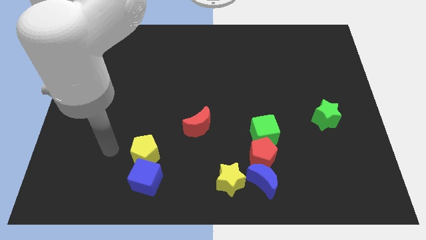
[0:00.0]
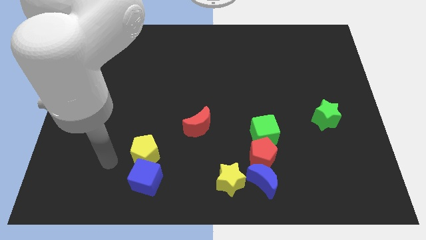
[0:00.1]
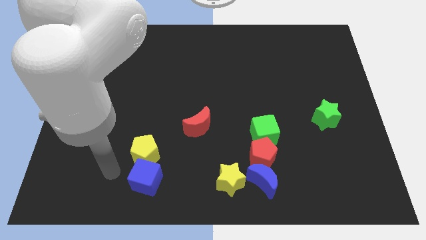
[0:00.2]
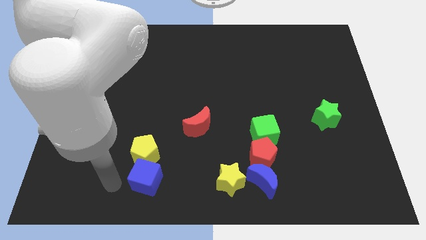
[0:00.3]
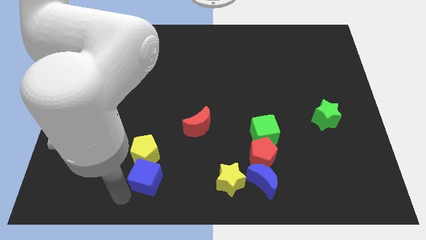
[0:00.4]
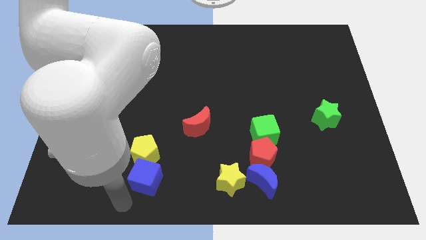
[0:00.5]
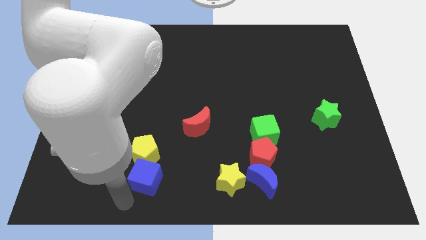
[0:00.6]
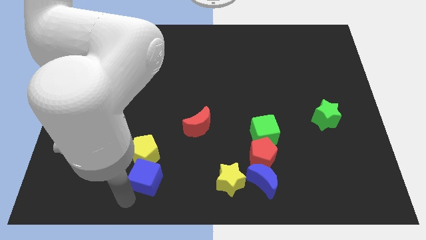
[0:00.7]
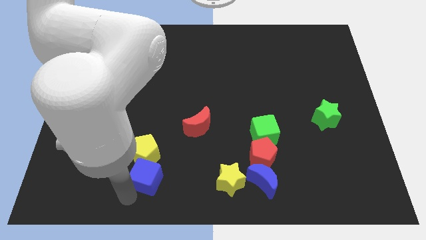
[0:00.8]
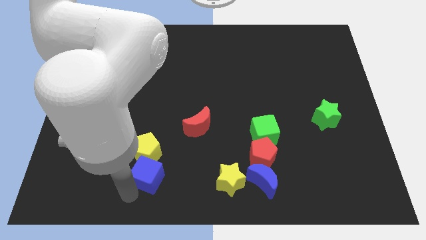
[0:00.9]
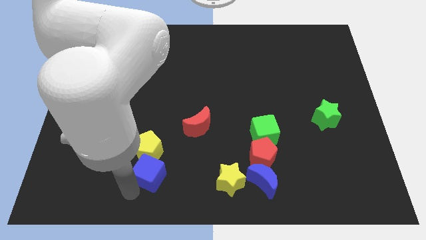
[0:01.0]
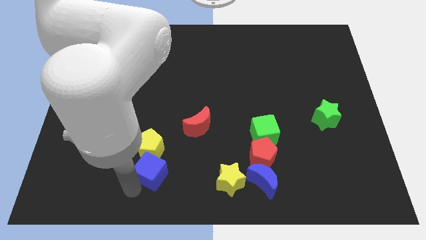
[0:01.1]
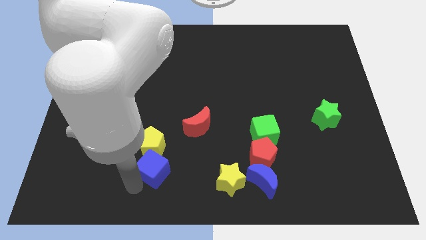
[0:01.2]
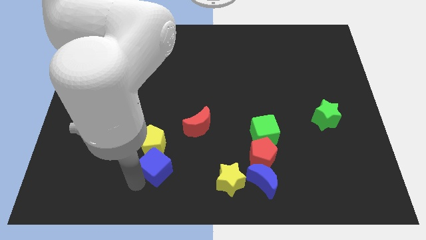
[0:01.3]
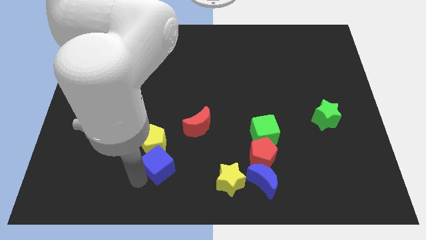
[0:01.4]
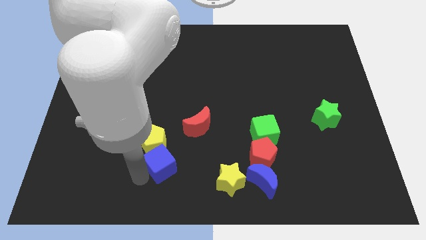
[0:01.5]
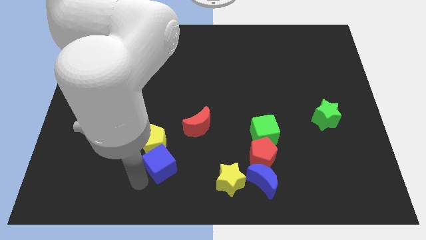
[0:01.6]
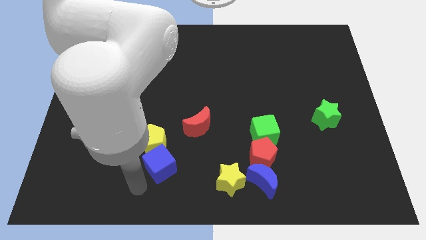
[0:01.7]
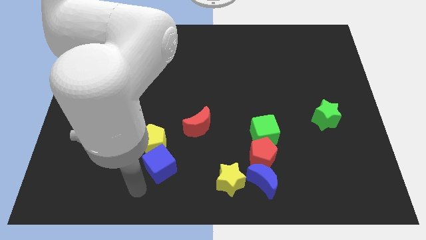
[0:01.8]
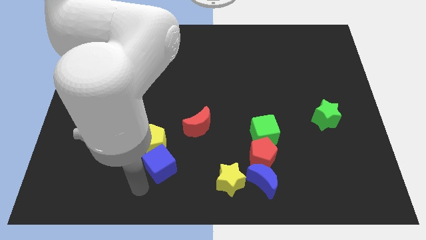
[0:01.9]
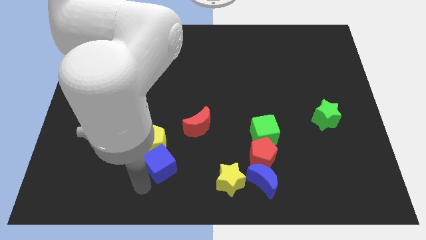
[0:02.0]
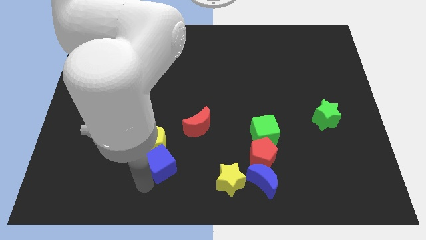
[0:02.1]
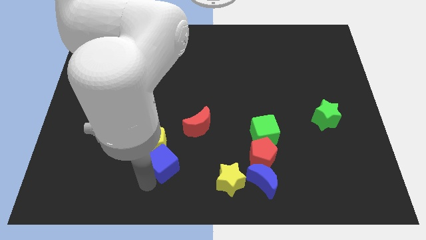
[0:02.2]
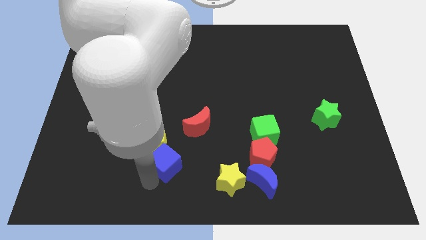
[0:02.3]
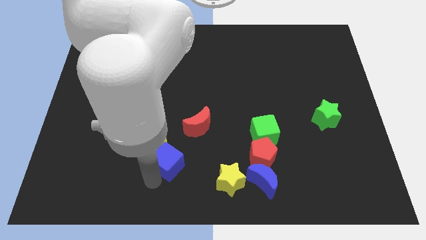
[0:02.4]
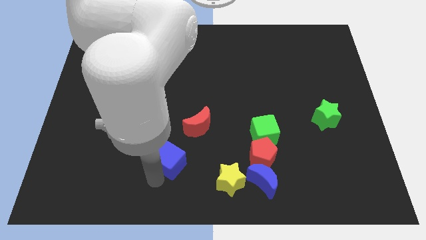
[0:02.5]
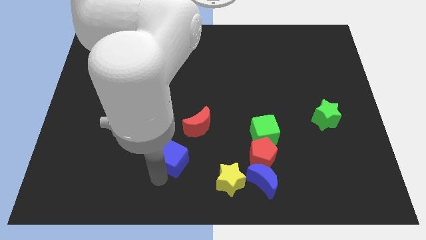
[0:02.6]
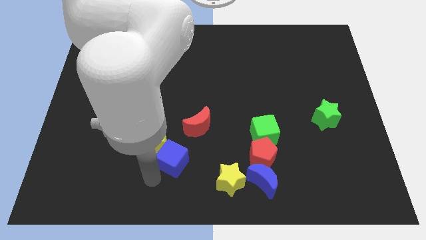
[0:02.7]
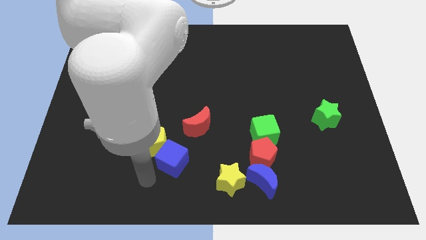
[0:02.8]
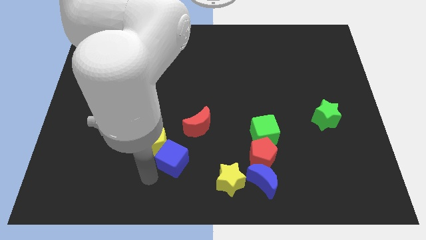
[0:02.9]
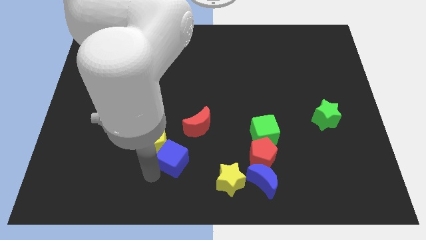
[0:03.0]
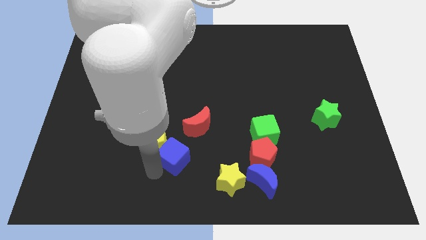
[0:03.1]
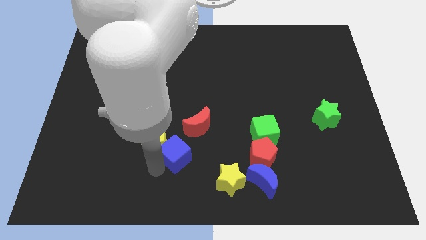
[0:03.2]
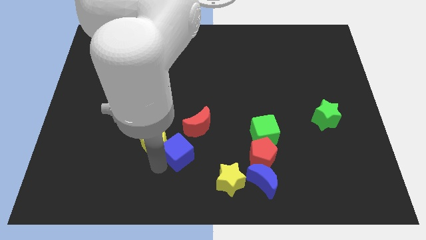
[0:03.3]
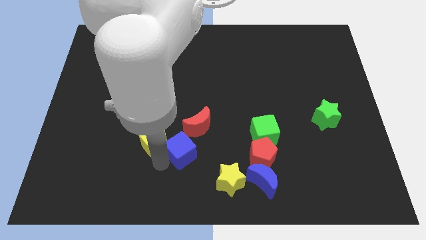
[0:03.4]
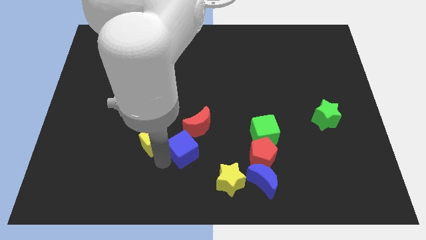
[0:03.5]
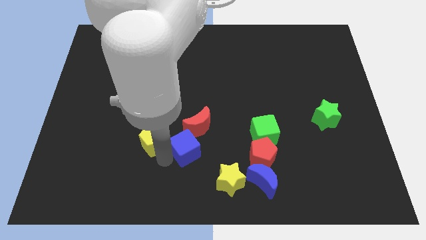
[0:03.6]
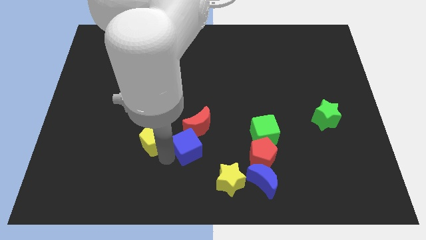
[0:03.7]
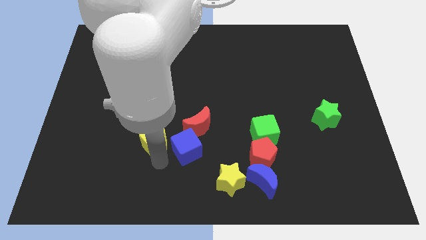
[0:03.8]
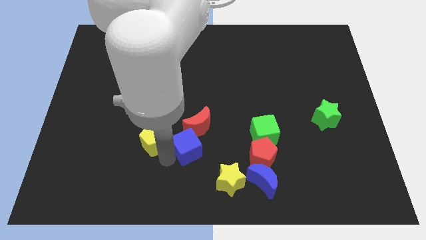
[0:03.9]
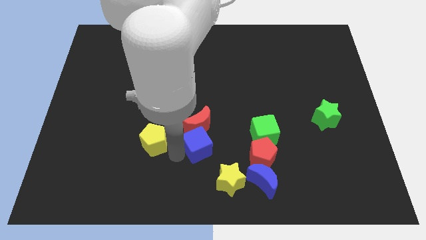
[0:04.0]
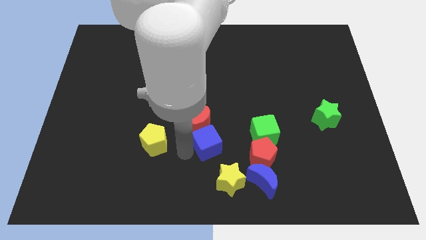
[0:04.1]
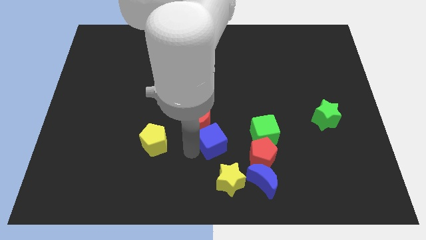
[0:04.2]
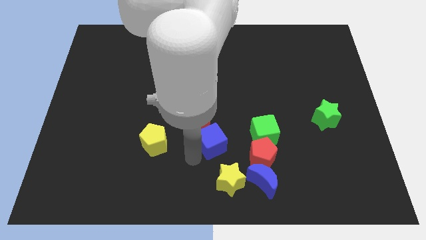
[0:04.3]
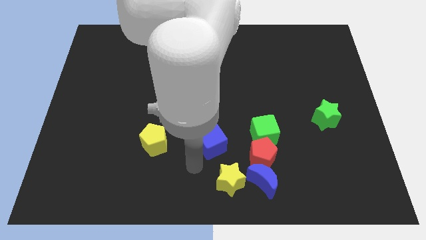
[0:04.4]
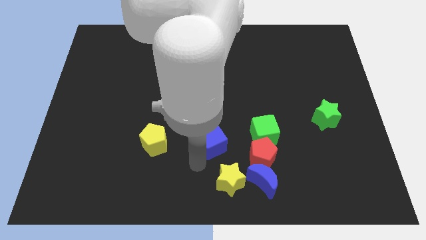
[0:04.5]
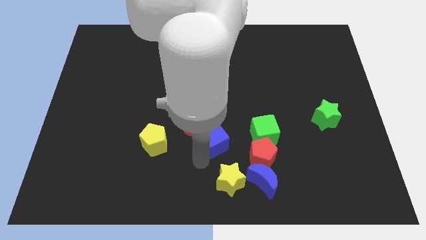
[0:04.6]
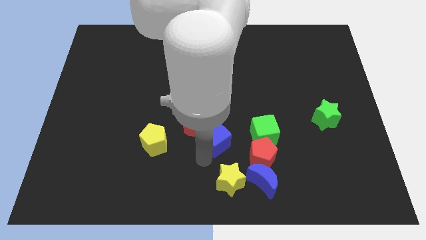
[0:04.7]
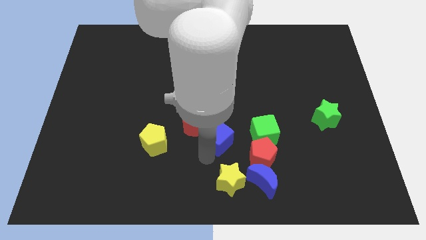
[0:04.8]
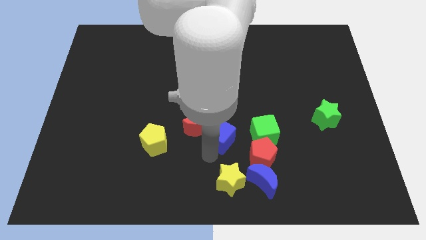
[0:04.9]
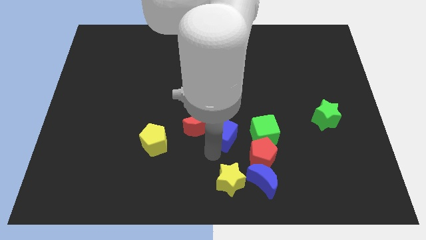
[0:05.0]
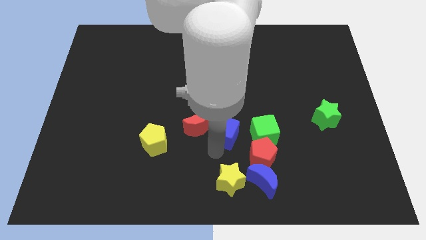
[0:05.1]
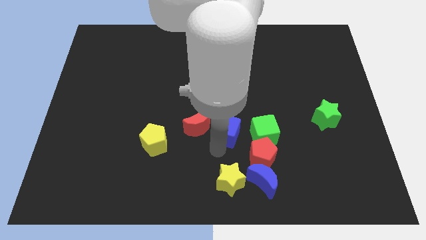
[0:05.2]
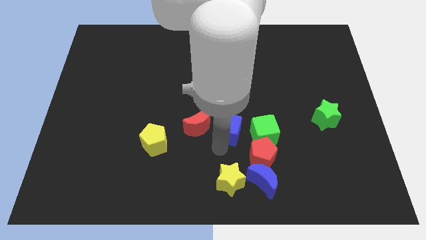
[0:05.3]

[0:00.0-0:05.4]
move the blue cube upwards and right diagonally

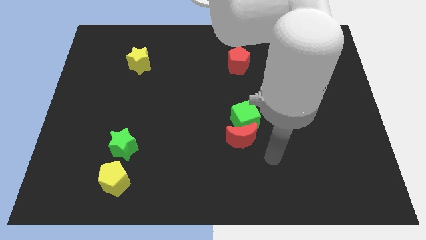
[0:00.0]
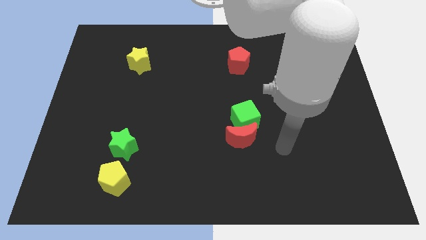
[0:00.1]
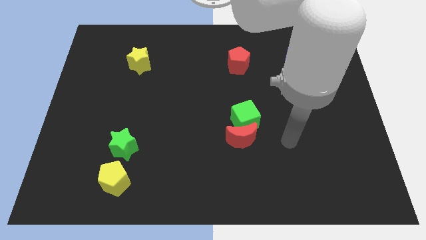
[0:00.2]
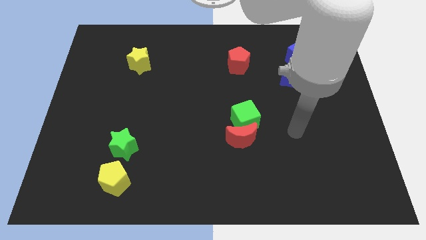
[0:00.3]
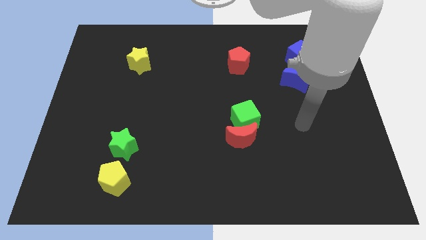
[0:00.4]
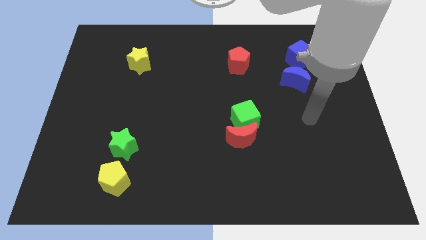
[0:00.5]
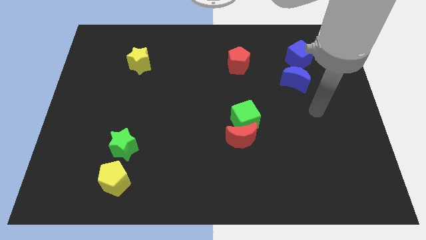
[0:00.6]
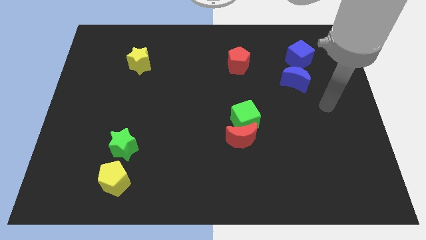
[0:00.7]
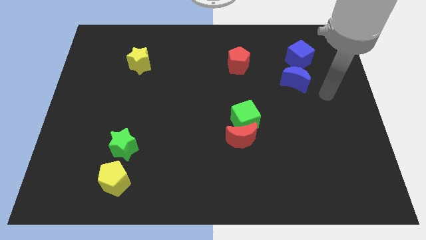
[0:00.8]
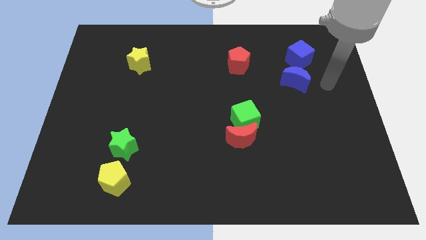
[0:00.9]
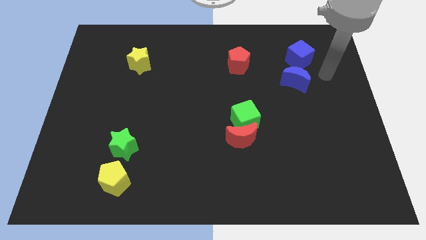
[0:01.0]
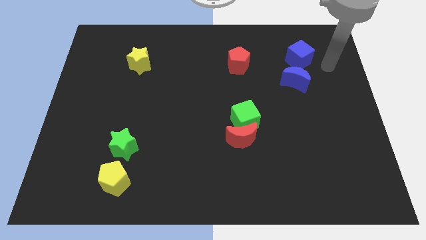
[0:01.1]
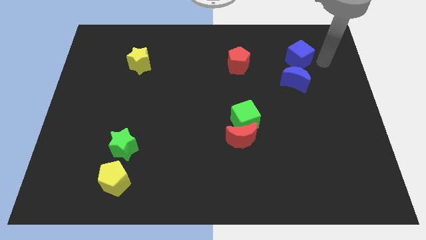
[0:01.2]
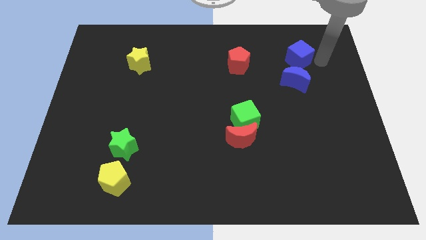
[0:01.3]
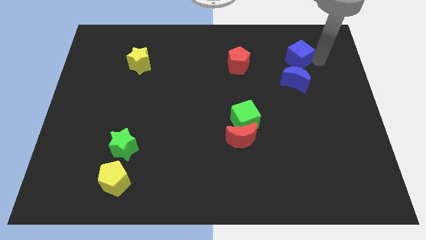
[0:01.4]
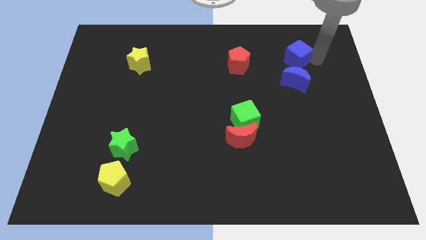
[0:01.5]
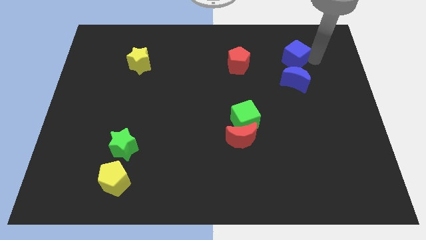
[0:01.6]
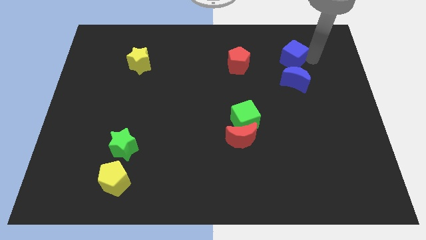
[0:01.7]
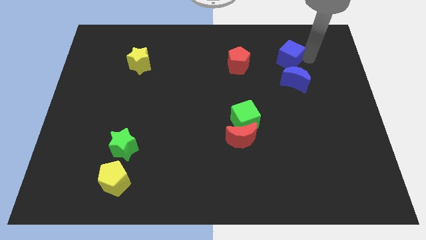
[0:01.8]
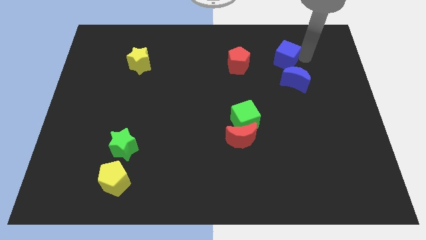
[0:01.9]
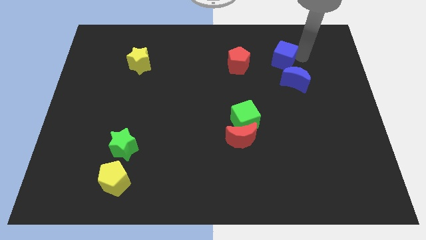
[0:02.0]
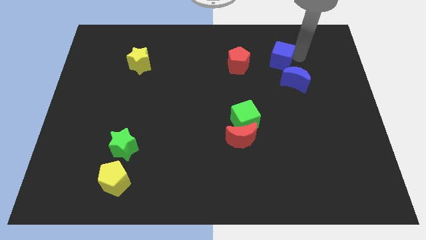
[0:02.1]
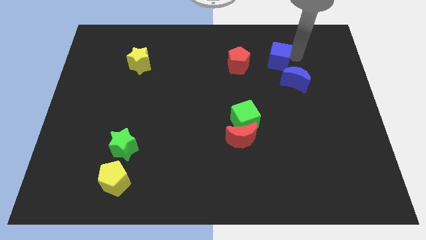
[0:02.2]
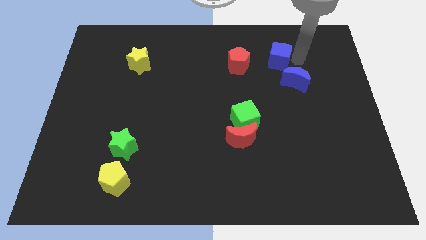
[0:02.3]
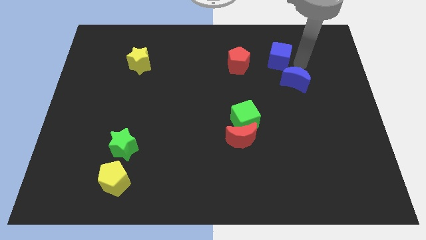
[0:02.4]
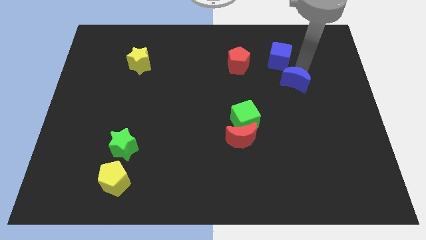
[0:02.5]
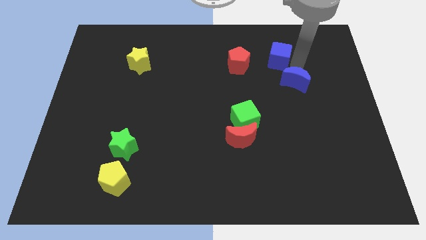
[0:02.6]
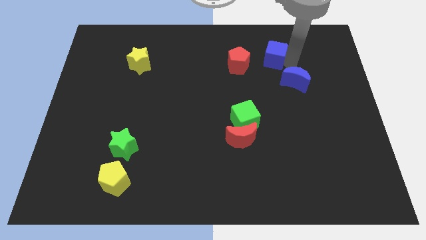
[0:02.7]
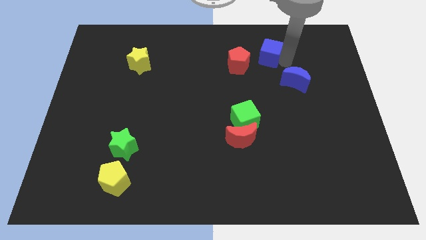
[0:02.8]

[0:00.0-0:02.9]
slightly move the blue cube left
